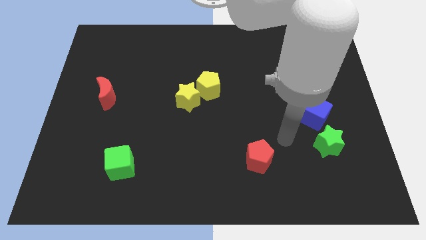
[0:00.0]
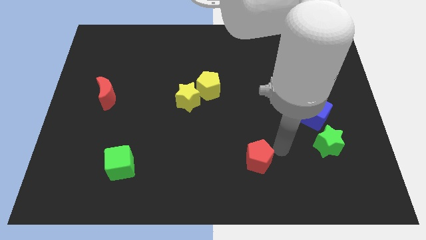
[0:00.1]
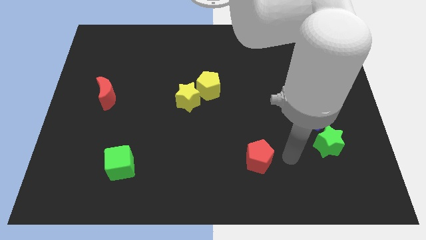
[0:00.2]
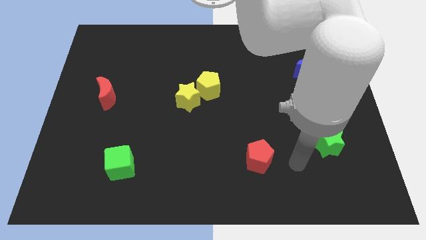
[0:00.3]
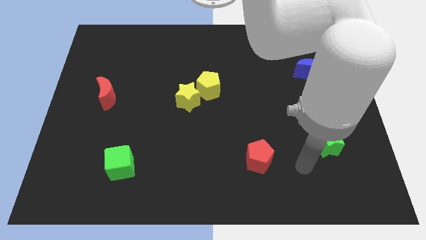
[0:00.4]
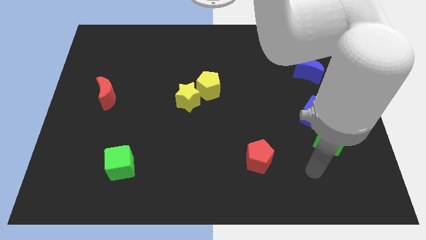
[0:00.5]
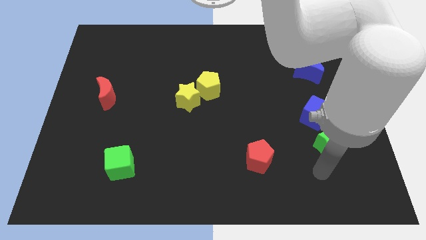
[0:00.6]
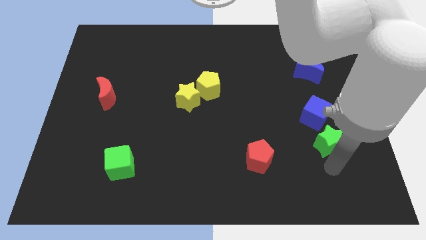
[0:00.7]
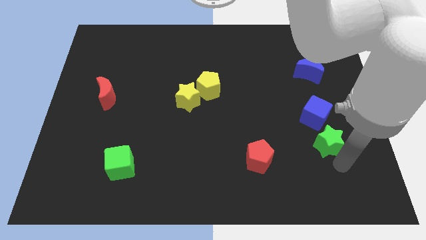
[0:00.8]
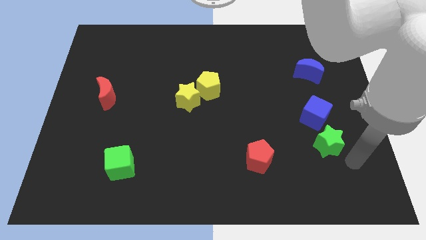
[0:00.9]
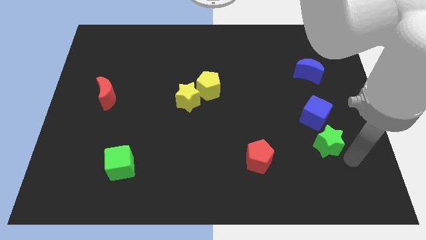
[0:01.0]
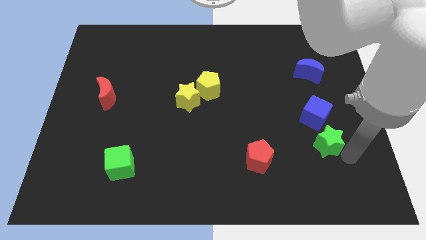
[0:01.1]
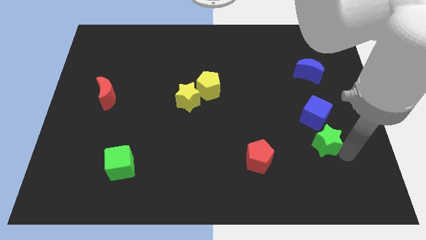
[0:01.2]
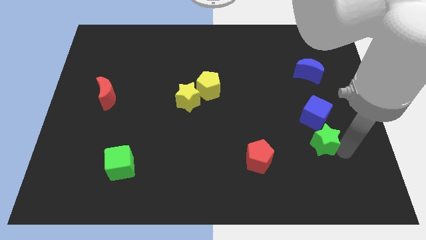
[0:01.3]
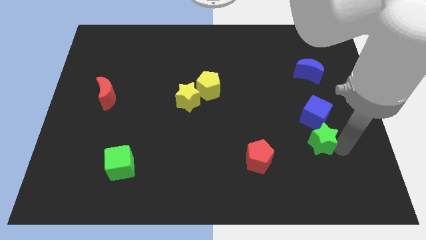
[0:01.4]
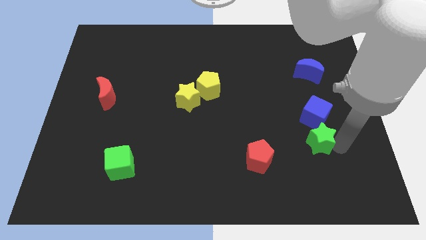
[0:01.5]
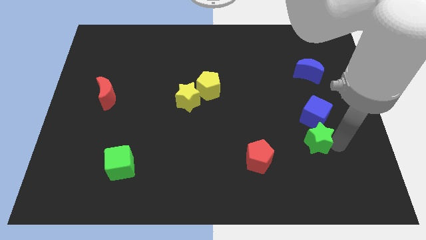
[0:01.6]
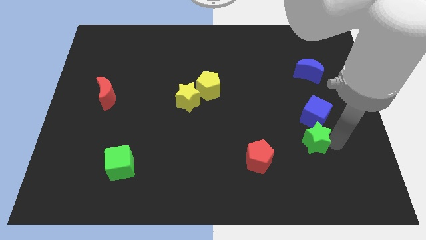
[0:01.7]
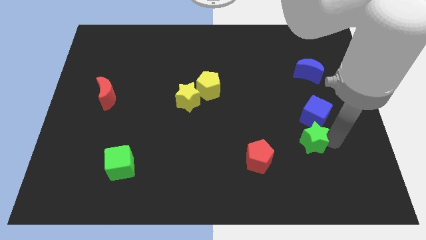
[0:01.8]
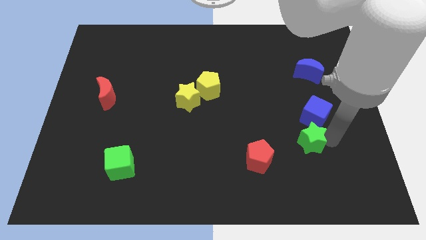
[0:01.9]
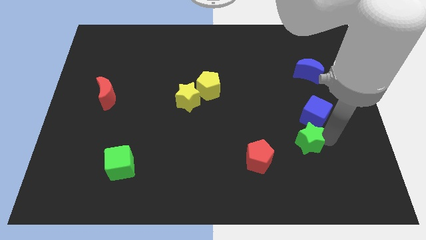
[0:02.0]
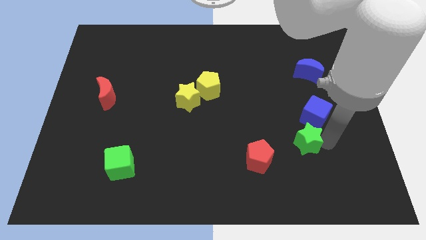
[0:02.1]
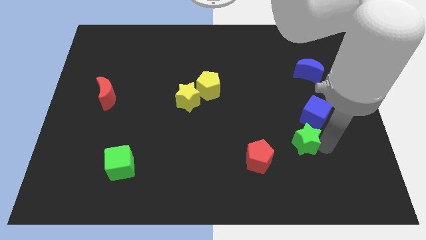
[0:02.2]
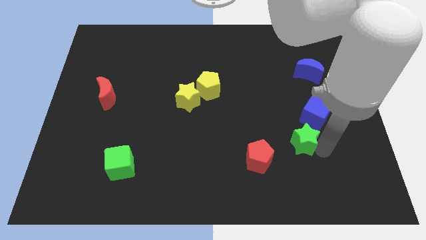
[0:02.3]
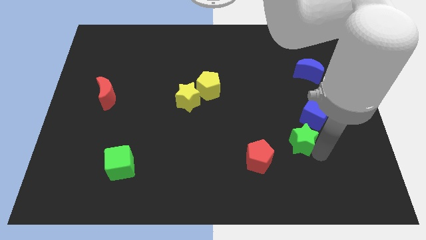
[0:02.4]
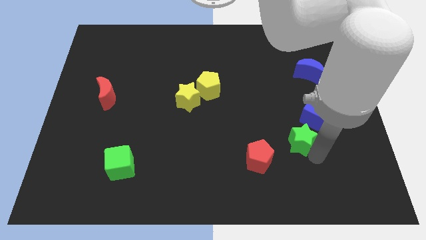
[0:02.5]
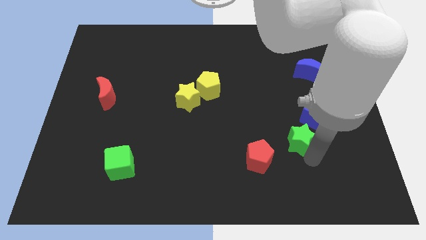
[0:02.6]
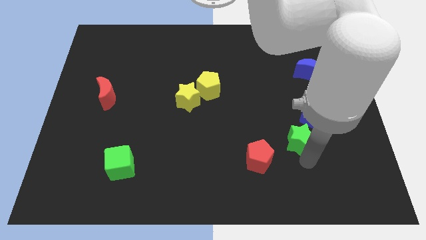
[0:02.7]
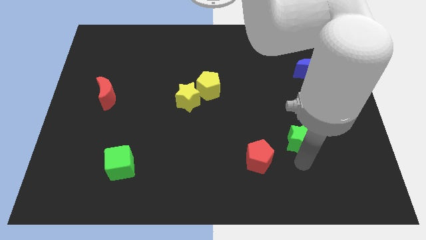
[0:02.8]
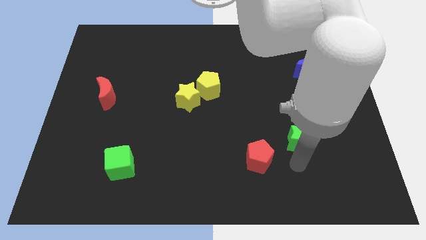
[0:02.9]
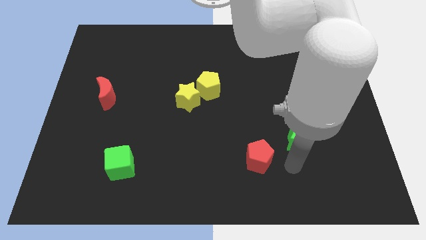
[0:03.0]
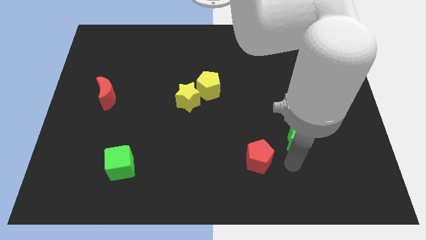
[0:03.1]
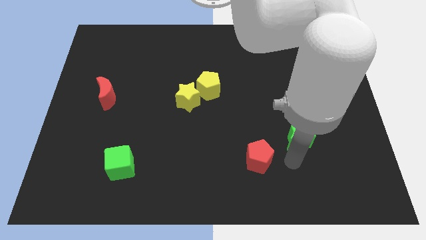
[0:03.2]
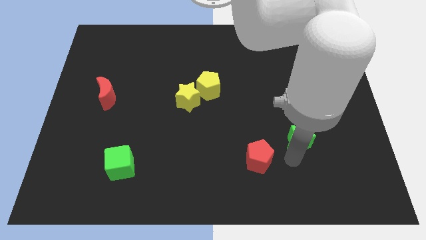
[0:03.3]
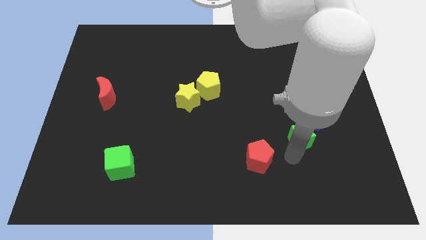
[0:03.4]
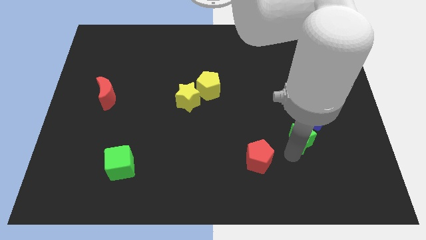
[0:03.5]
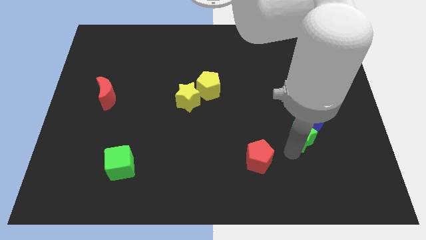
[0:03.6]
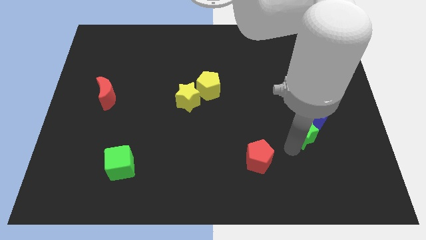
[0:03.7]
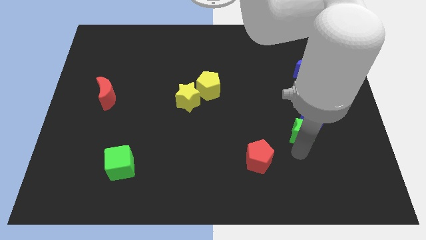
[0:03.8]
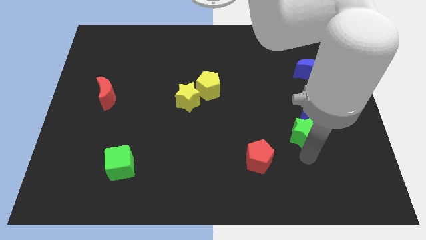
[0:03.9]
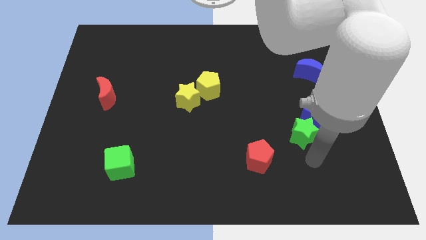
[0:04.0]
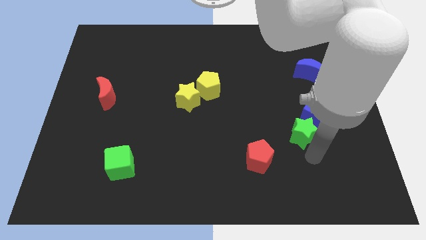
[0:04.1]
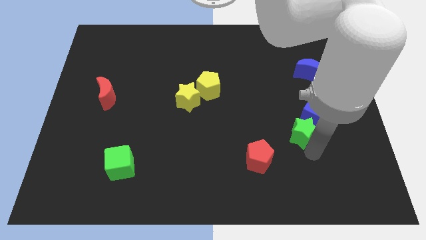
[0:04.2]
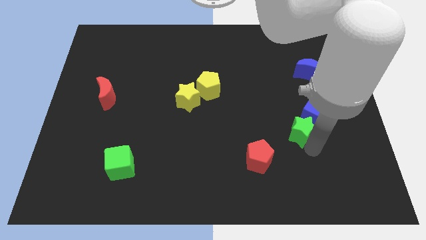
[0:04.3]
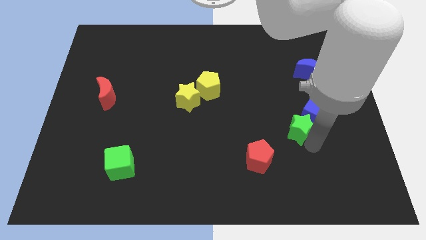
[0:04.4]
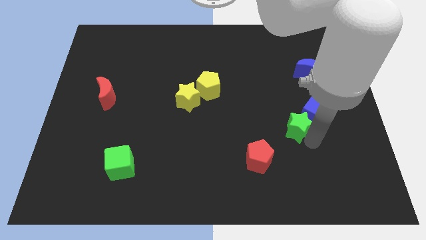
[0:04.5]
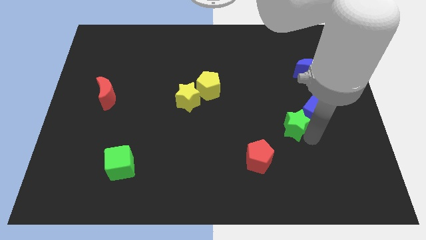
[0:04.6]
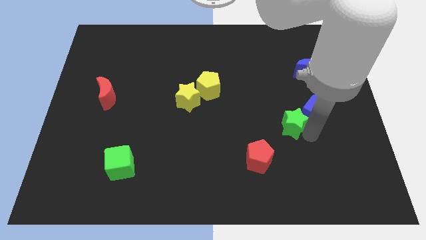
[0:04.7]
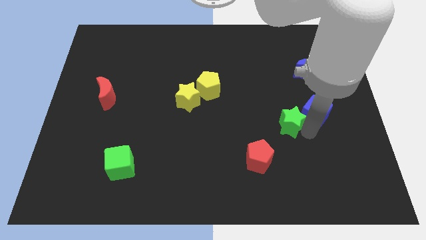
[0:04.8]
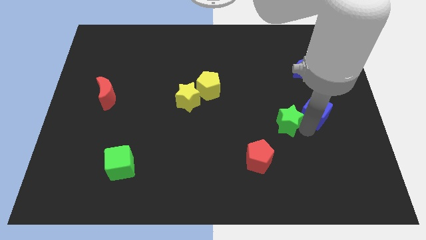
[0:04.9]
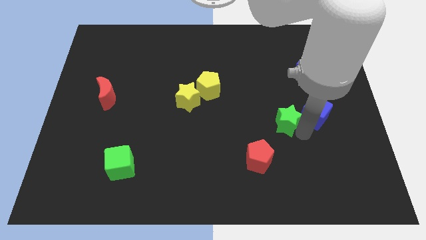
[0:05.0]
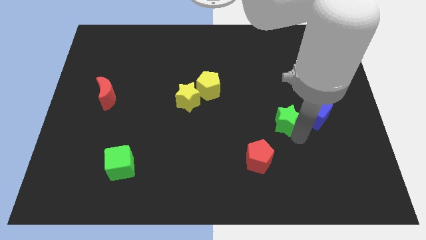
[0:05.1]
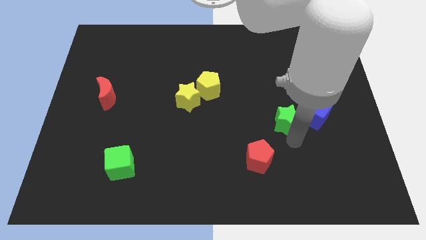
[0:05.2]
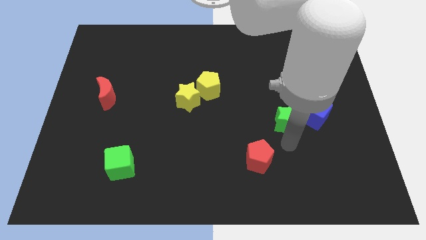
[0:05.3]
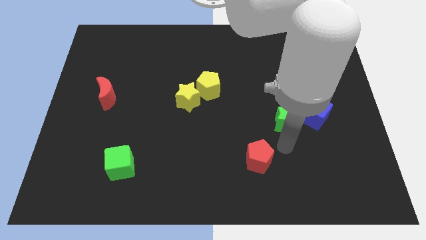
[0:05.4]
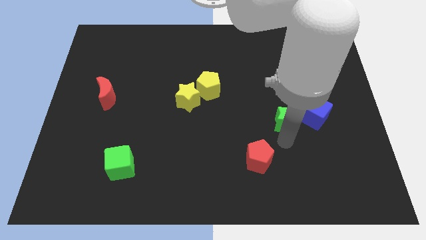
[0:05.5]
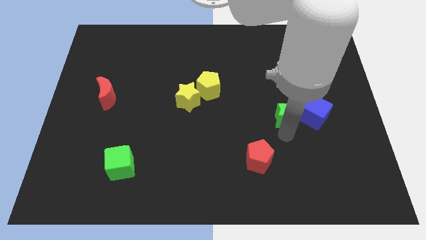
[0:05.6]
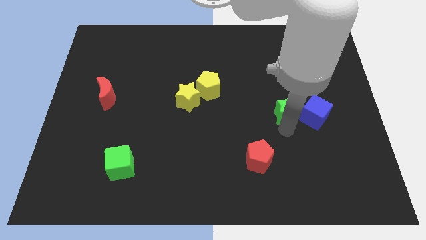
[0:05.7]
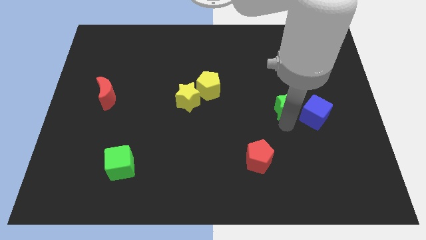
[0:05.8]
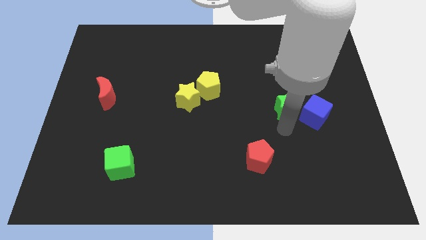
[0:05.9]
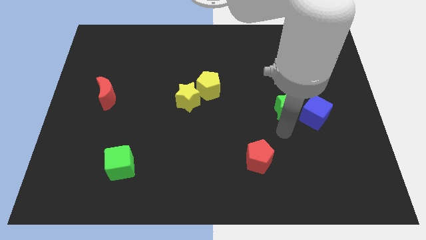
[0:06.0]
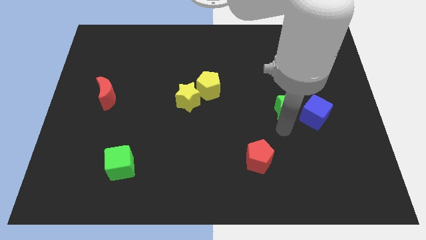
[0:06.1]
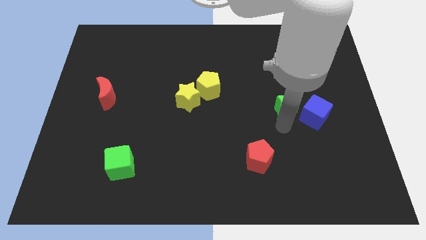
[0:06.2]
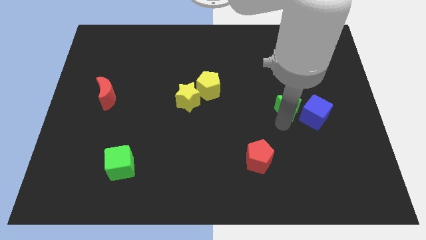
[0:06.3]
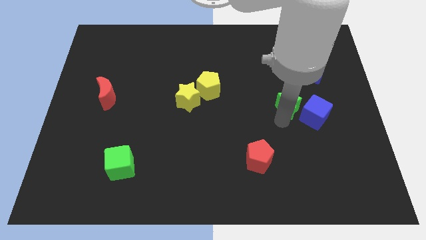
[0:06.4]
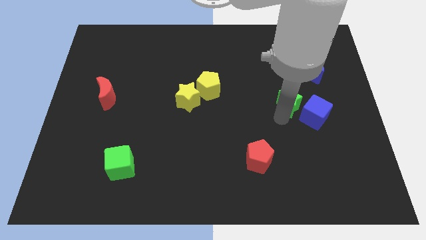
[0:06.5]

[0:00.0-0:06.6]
push the green star to the bottom left side of the blue moon
